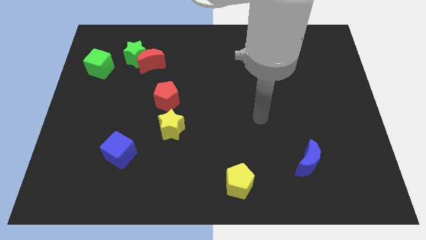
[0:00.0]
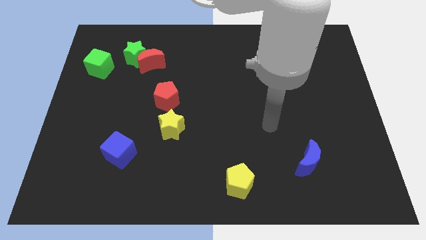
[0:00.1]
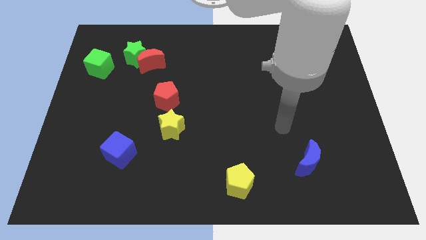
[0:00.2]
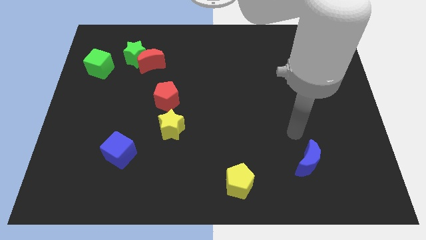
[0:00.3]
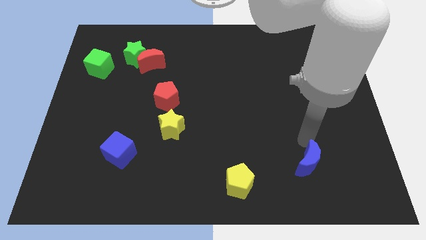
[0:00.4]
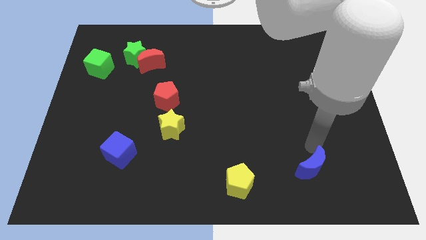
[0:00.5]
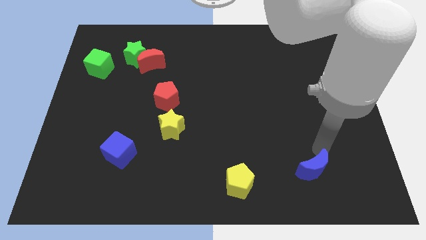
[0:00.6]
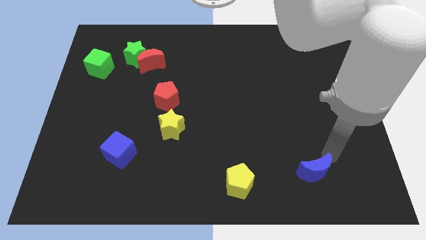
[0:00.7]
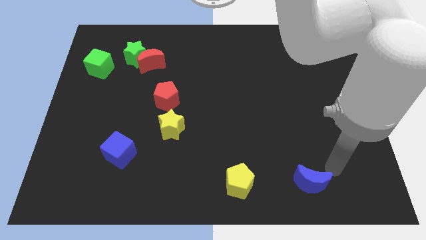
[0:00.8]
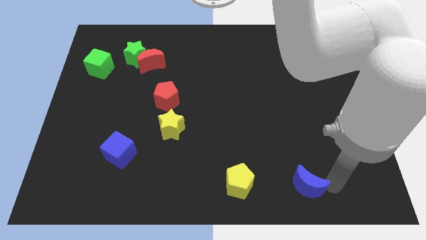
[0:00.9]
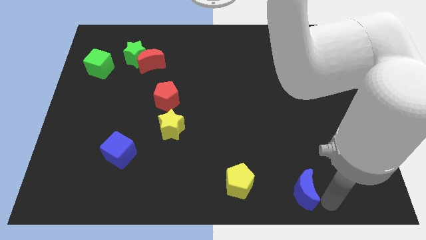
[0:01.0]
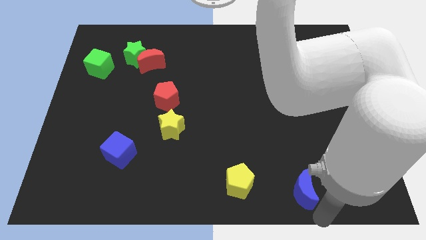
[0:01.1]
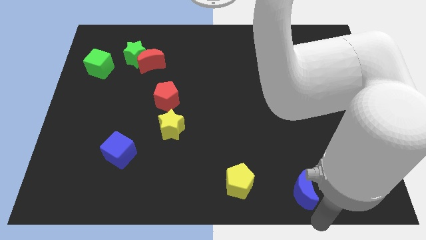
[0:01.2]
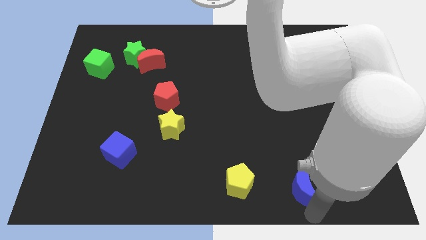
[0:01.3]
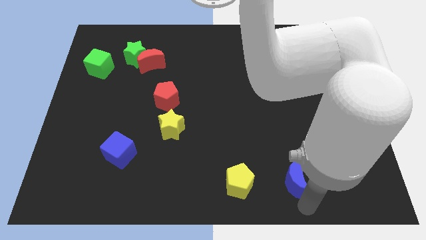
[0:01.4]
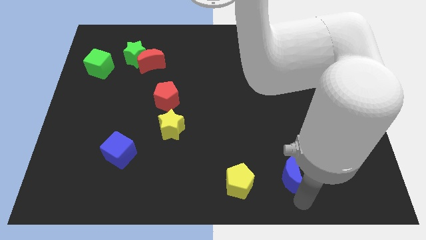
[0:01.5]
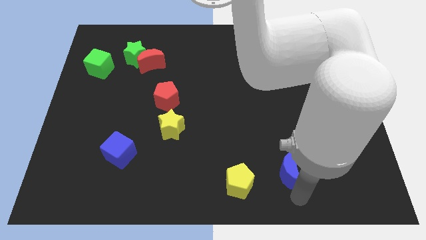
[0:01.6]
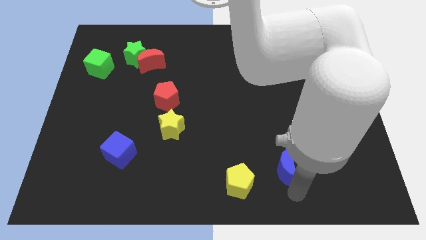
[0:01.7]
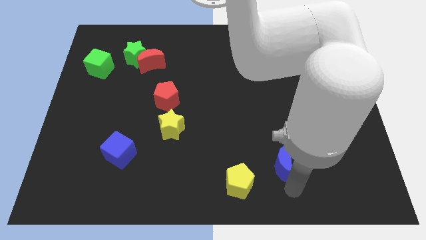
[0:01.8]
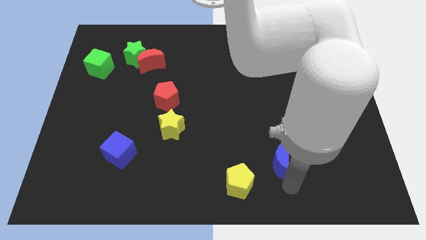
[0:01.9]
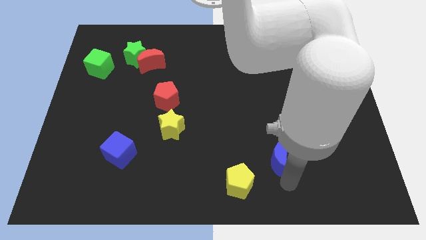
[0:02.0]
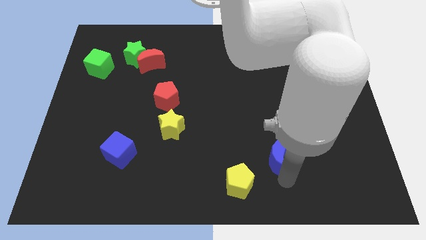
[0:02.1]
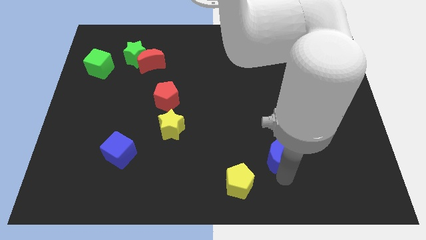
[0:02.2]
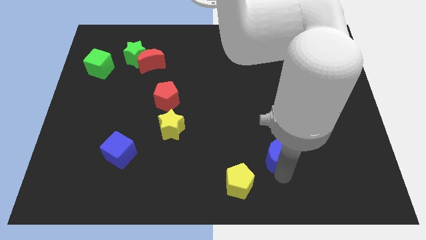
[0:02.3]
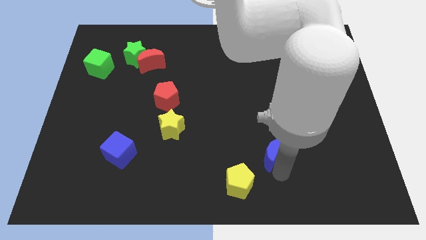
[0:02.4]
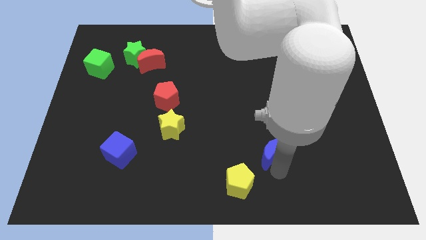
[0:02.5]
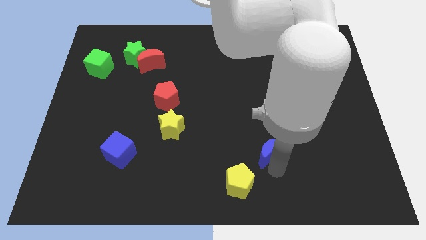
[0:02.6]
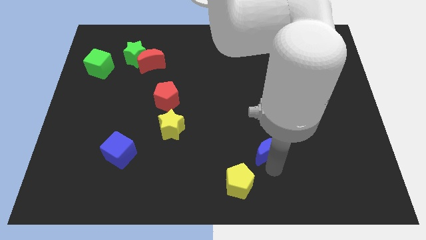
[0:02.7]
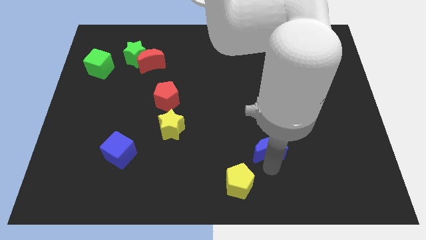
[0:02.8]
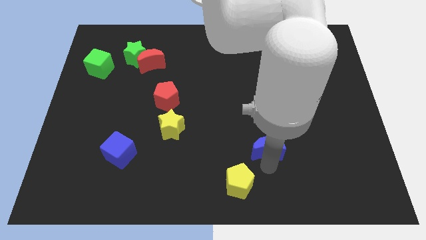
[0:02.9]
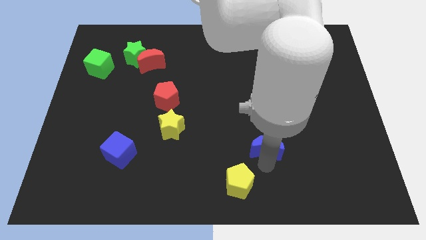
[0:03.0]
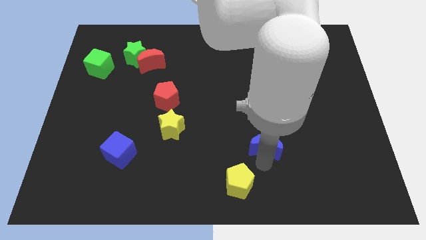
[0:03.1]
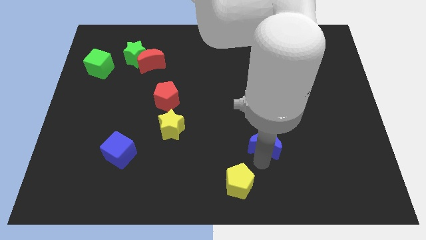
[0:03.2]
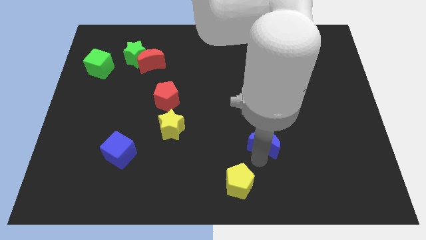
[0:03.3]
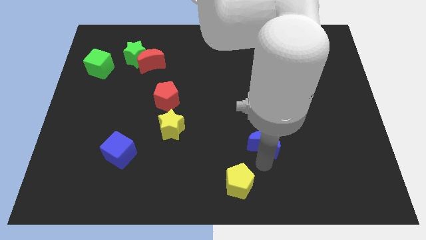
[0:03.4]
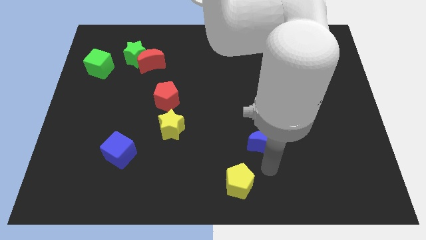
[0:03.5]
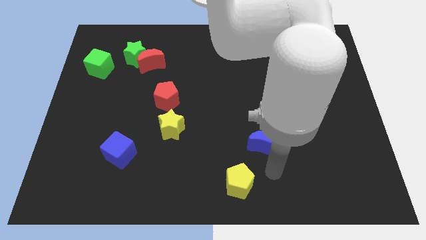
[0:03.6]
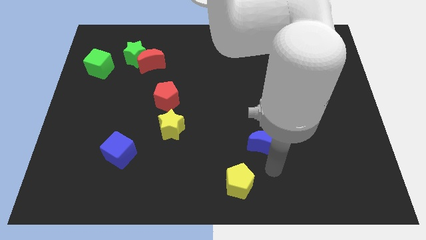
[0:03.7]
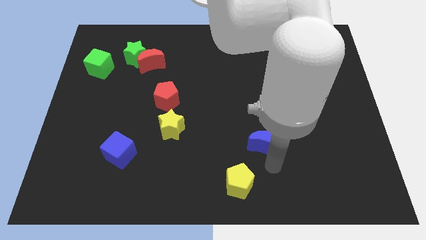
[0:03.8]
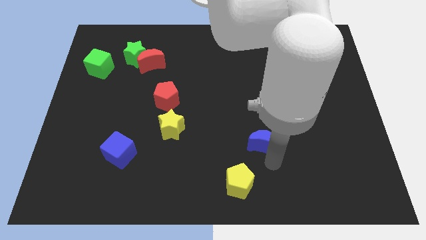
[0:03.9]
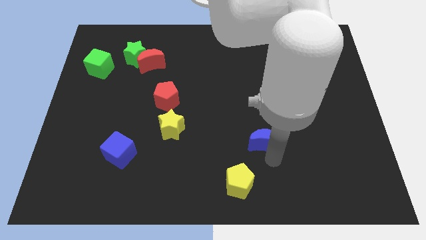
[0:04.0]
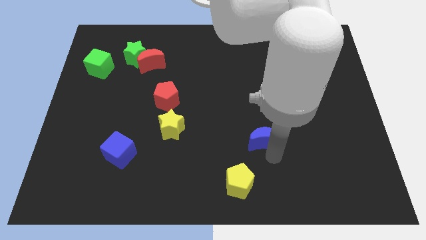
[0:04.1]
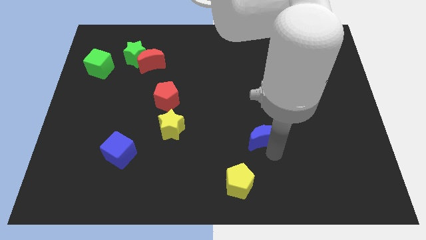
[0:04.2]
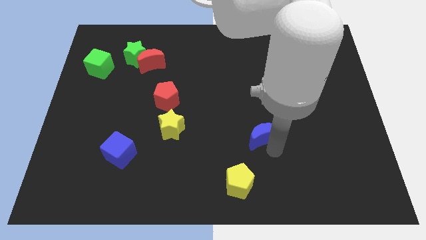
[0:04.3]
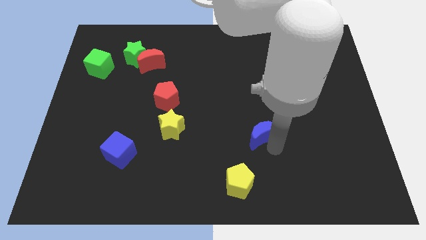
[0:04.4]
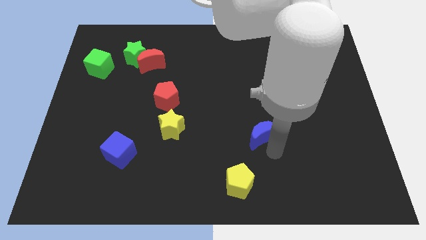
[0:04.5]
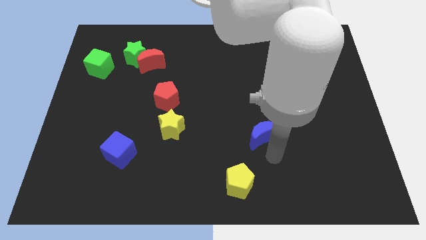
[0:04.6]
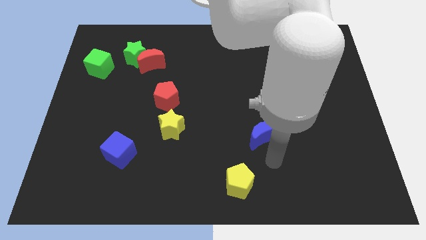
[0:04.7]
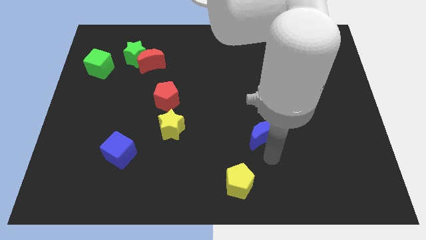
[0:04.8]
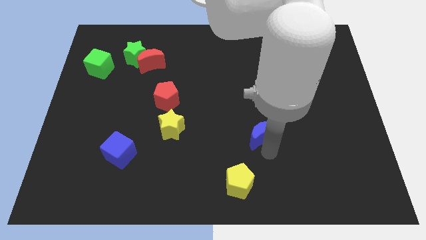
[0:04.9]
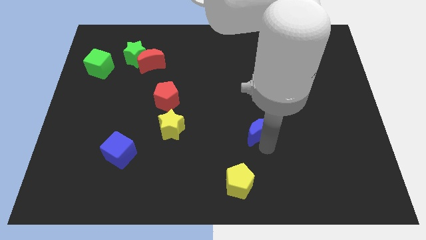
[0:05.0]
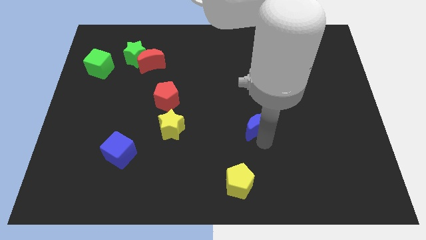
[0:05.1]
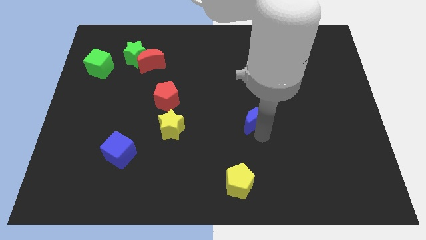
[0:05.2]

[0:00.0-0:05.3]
move the blue moon to the center
